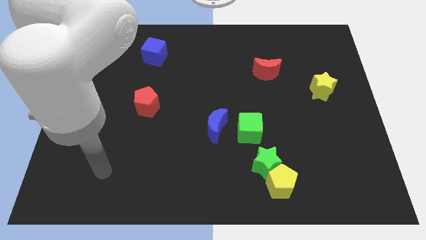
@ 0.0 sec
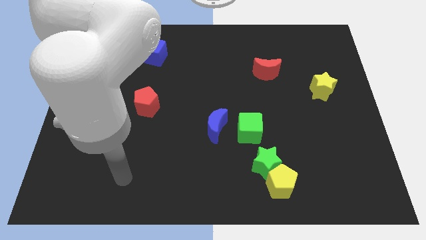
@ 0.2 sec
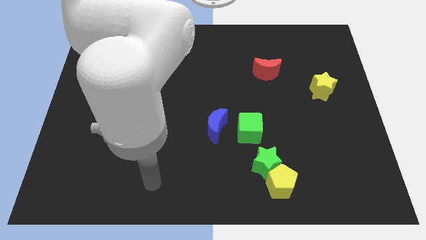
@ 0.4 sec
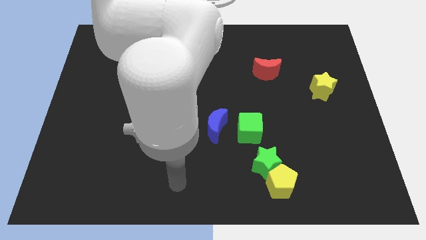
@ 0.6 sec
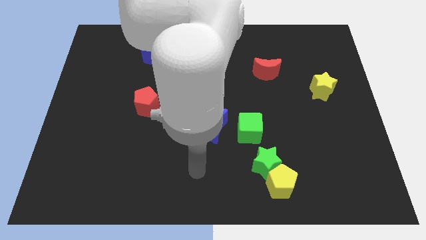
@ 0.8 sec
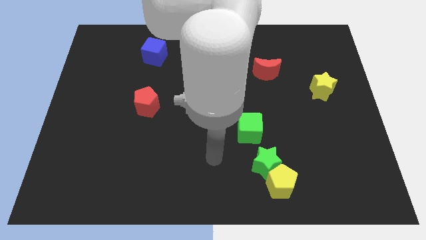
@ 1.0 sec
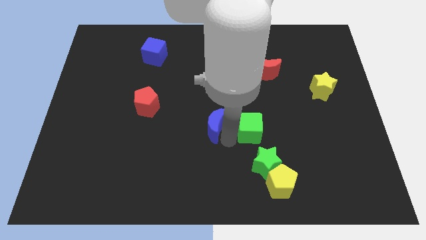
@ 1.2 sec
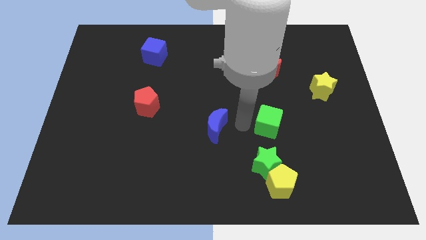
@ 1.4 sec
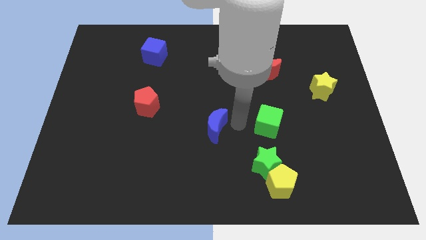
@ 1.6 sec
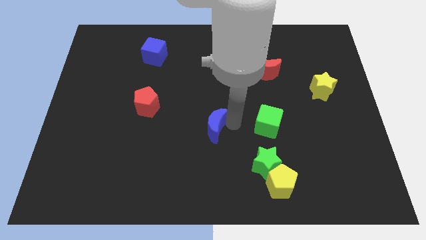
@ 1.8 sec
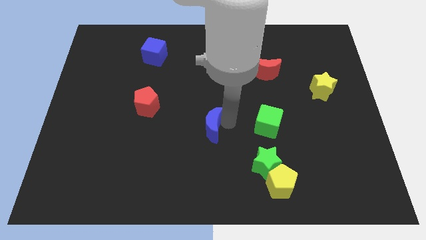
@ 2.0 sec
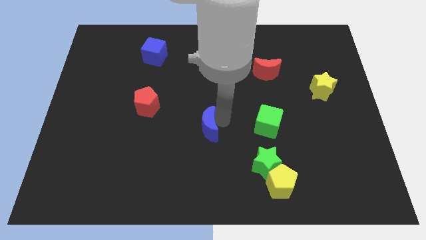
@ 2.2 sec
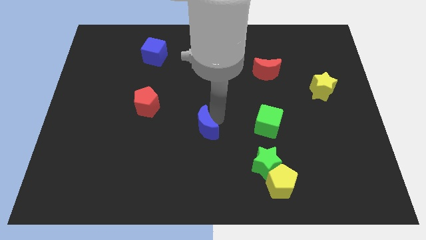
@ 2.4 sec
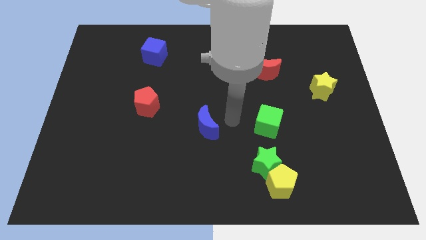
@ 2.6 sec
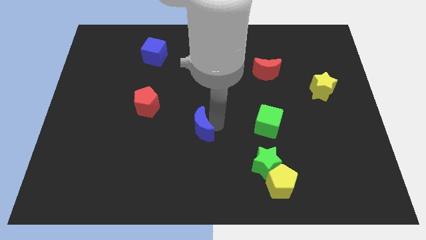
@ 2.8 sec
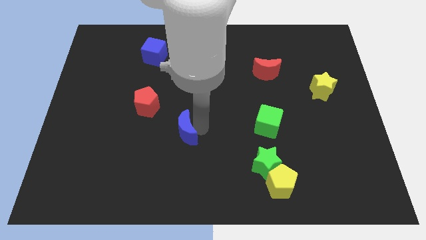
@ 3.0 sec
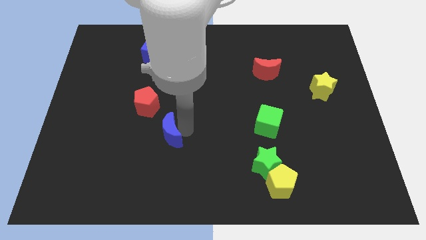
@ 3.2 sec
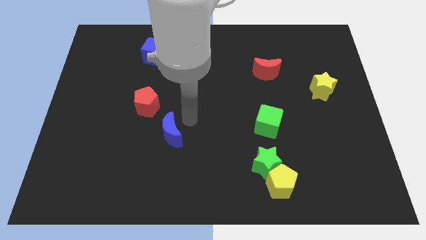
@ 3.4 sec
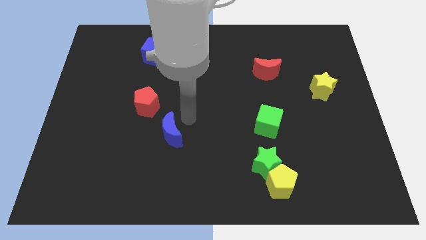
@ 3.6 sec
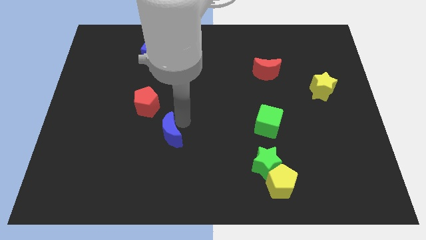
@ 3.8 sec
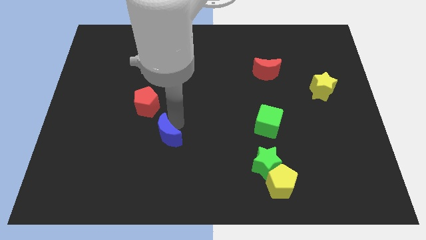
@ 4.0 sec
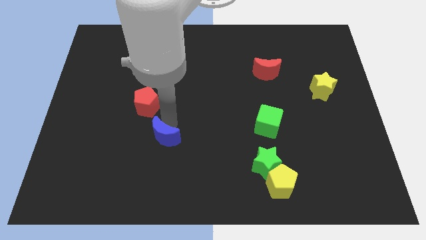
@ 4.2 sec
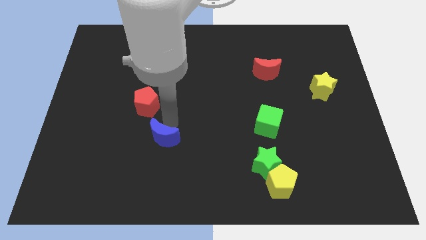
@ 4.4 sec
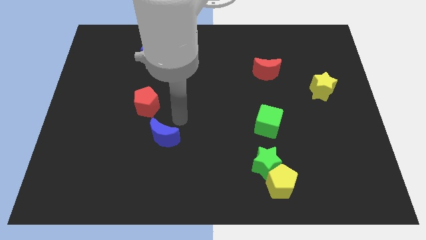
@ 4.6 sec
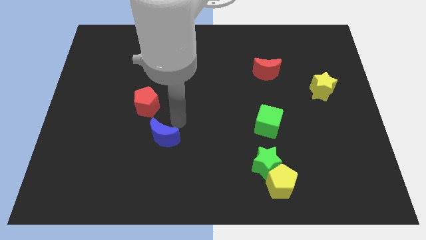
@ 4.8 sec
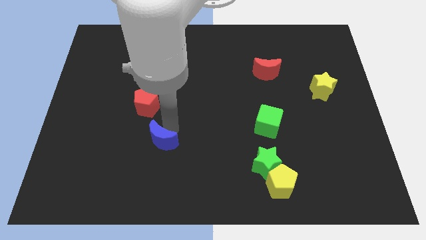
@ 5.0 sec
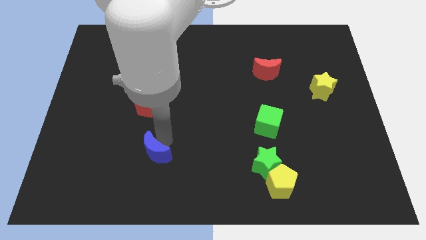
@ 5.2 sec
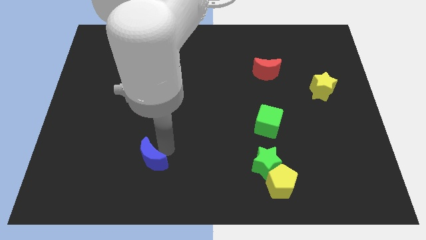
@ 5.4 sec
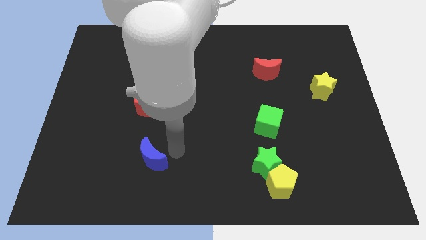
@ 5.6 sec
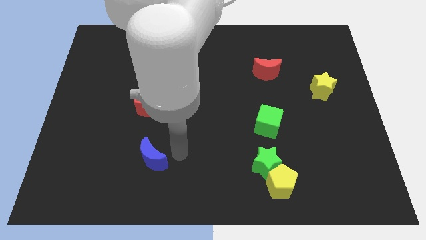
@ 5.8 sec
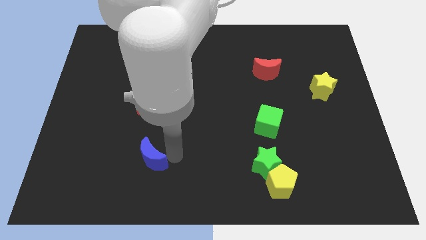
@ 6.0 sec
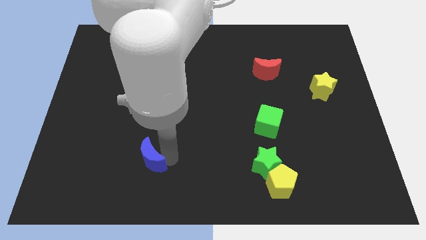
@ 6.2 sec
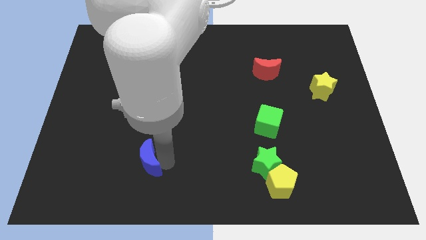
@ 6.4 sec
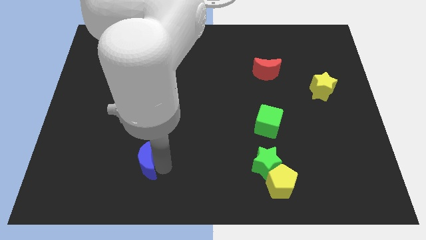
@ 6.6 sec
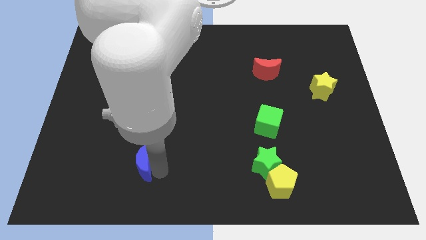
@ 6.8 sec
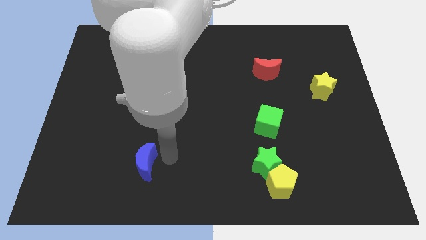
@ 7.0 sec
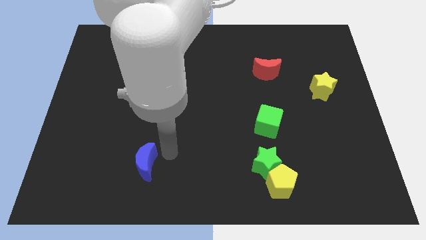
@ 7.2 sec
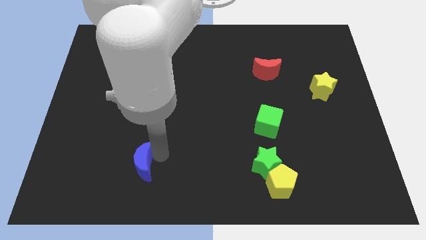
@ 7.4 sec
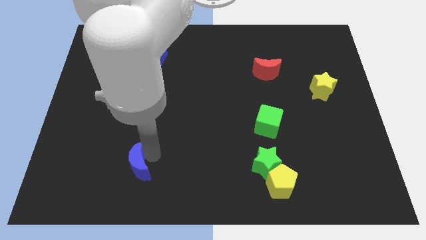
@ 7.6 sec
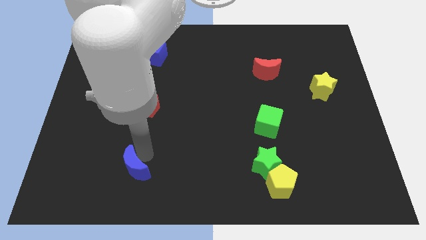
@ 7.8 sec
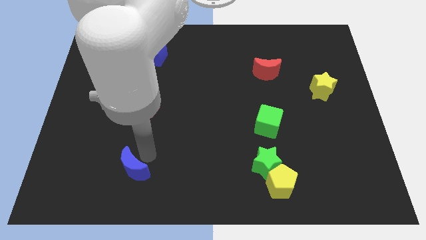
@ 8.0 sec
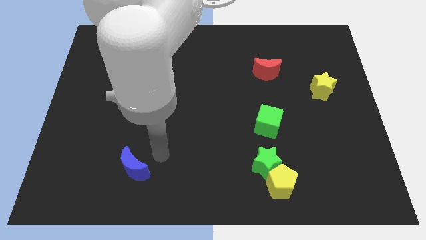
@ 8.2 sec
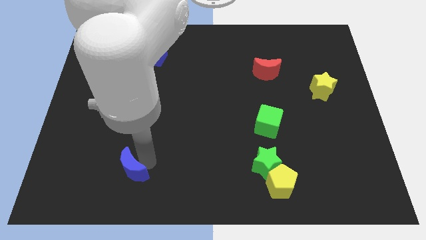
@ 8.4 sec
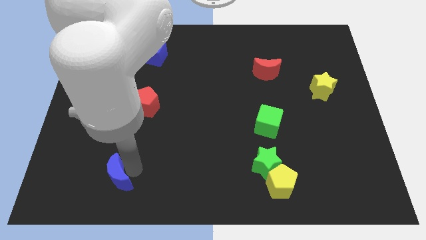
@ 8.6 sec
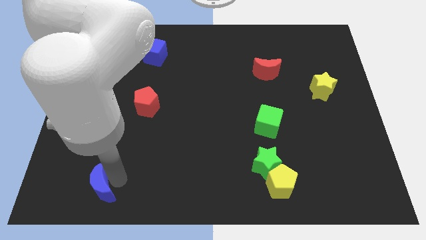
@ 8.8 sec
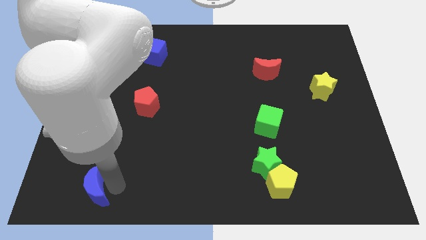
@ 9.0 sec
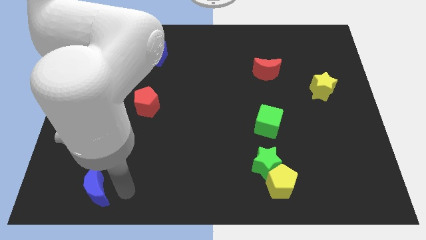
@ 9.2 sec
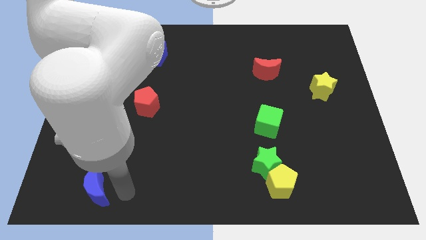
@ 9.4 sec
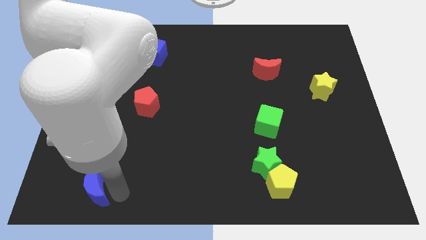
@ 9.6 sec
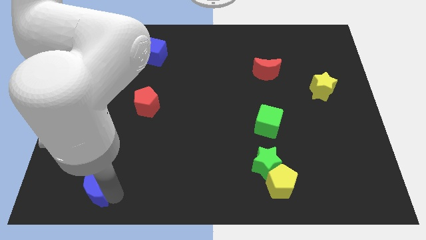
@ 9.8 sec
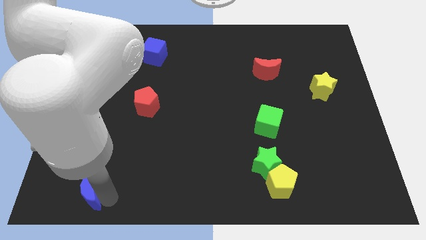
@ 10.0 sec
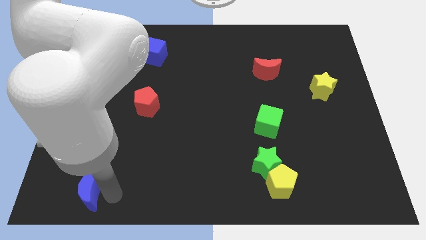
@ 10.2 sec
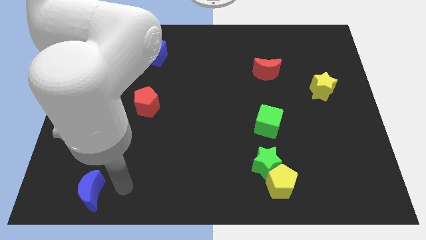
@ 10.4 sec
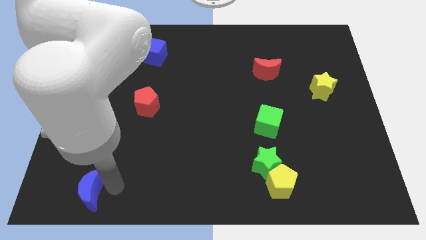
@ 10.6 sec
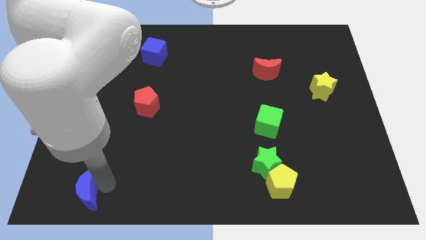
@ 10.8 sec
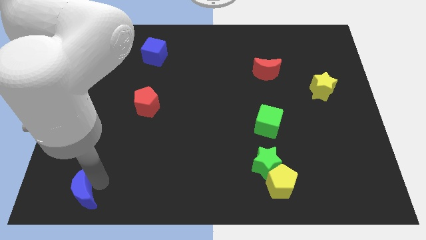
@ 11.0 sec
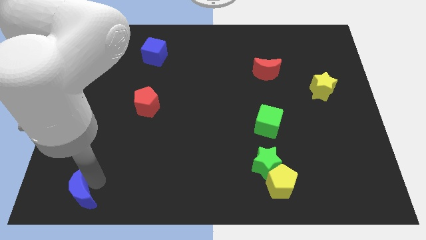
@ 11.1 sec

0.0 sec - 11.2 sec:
move the blue moon to the lower left corner
